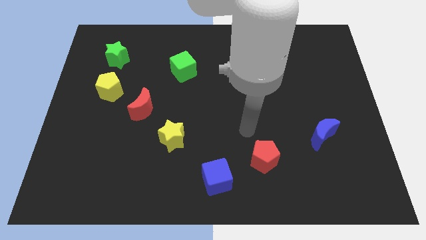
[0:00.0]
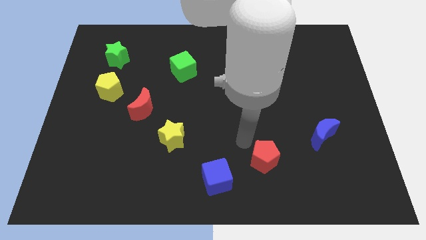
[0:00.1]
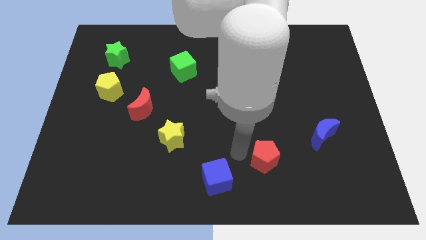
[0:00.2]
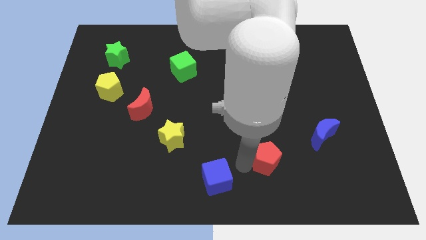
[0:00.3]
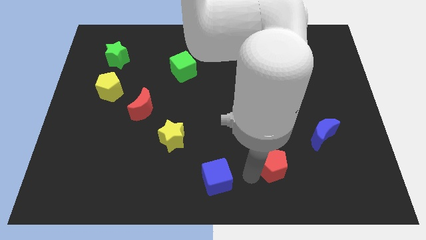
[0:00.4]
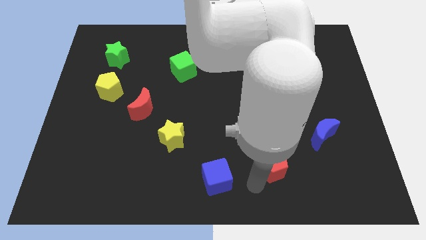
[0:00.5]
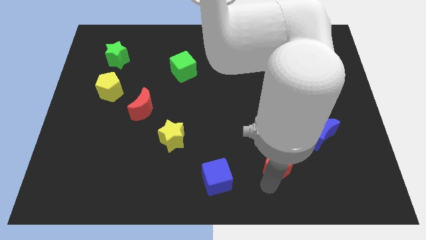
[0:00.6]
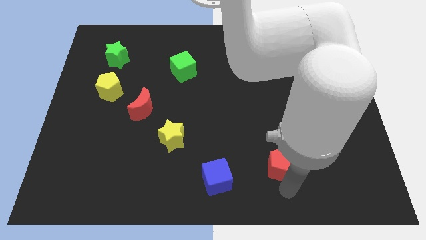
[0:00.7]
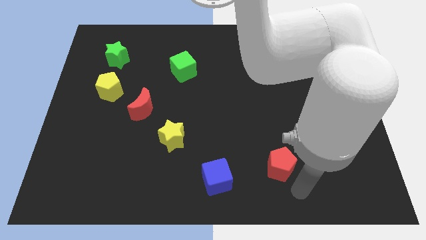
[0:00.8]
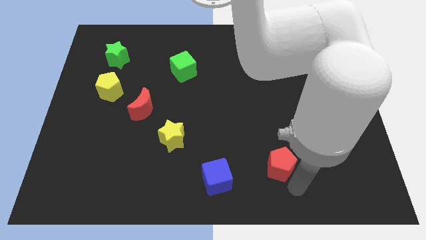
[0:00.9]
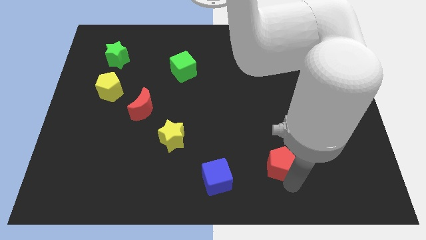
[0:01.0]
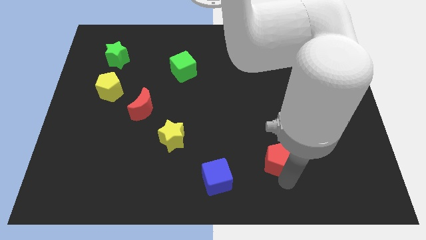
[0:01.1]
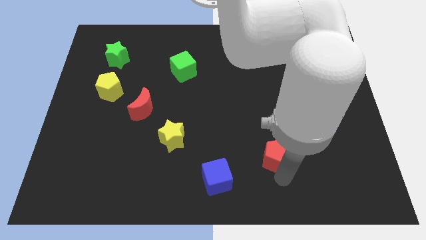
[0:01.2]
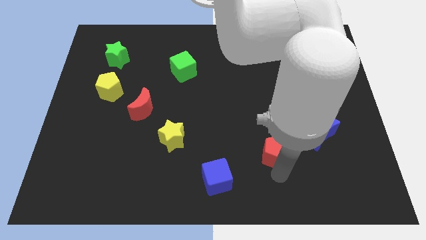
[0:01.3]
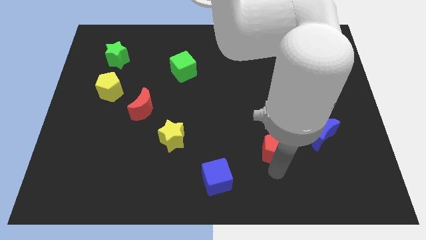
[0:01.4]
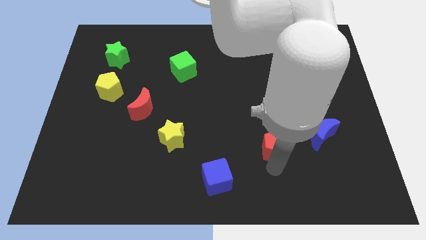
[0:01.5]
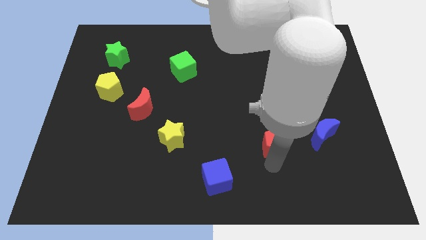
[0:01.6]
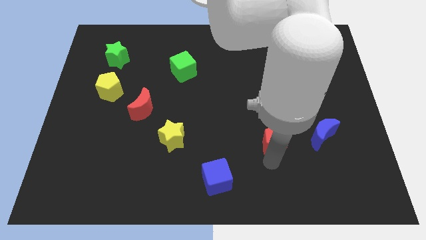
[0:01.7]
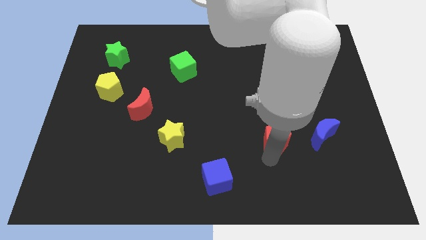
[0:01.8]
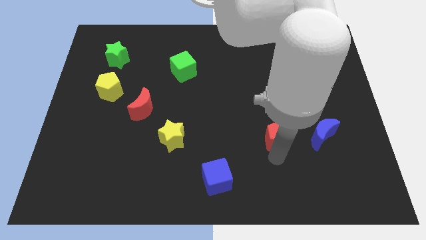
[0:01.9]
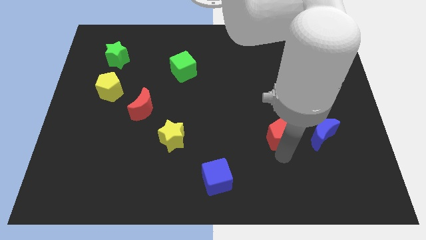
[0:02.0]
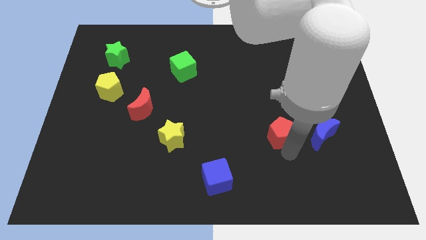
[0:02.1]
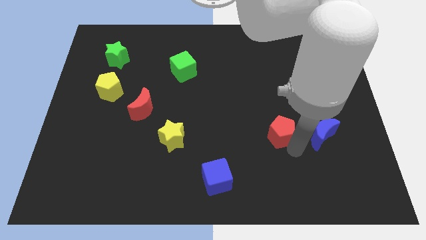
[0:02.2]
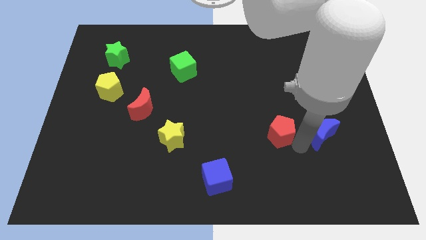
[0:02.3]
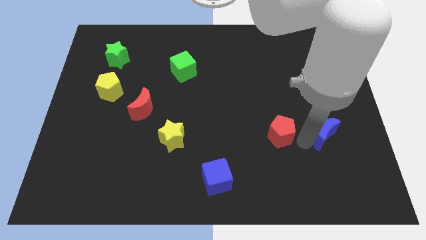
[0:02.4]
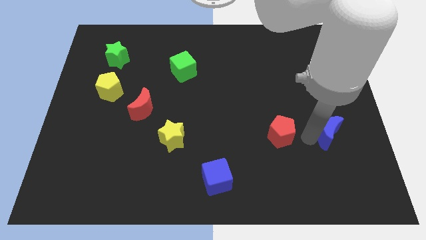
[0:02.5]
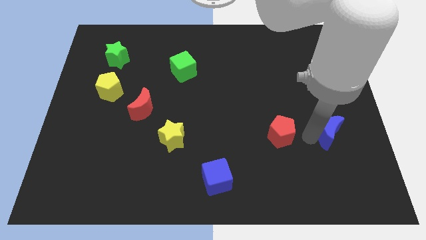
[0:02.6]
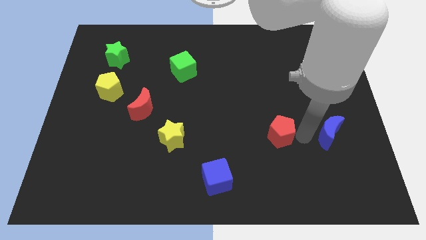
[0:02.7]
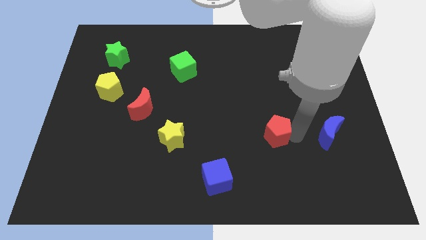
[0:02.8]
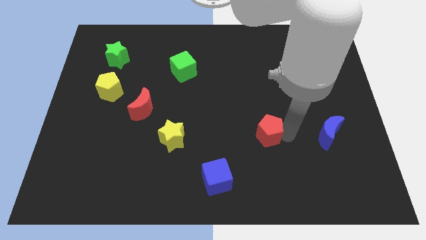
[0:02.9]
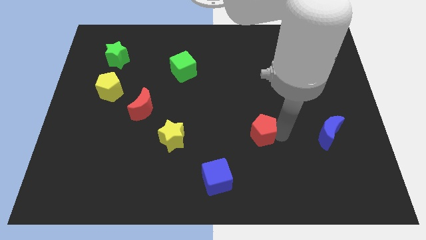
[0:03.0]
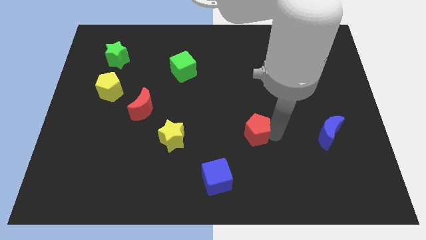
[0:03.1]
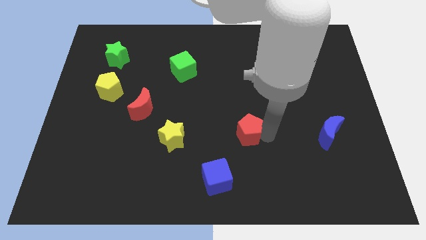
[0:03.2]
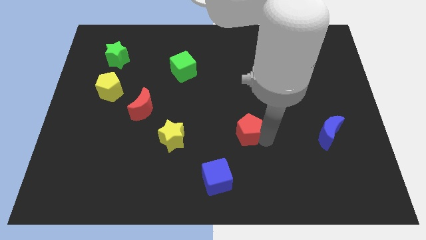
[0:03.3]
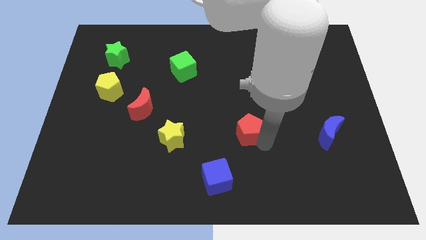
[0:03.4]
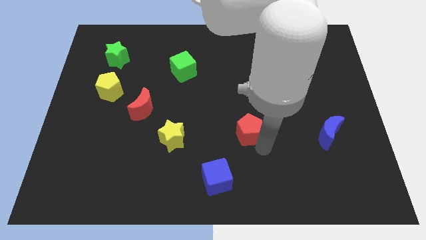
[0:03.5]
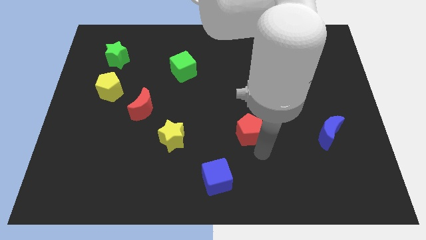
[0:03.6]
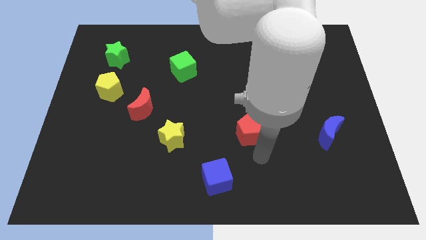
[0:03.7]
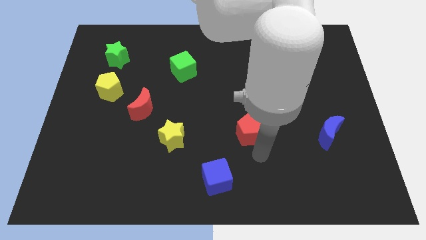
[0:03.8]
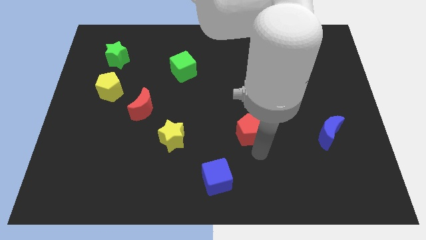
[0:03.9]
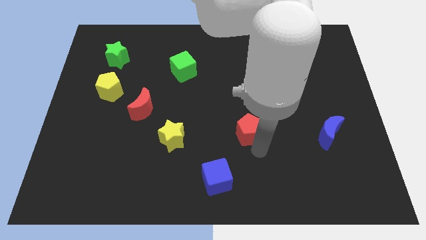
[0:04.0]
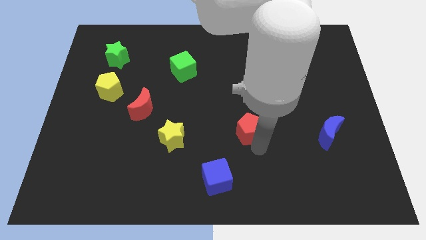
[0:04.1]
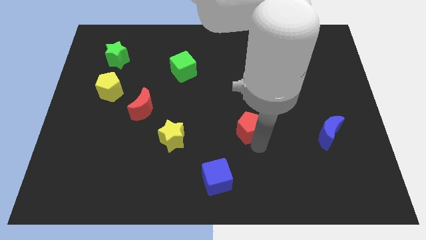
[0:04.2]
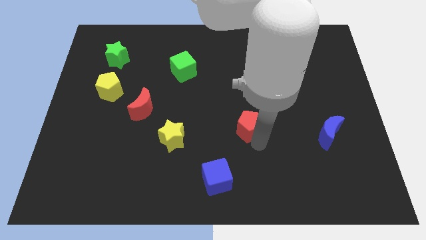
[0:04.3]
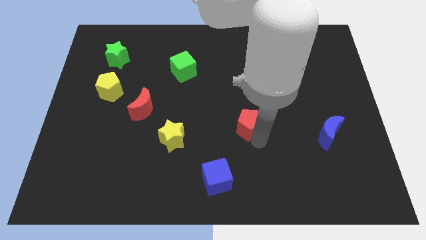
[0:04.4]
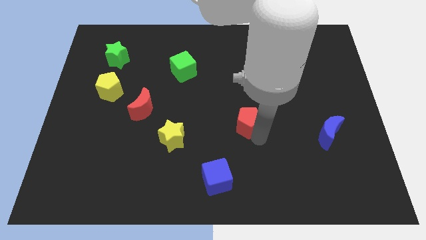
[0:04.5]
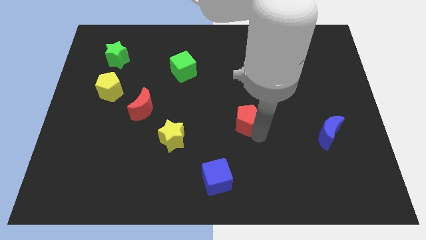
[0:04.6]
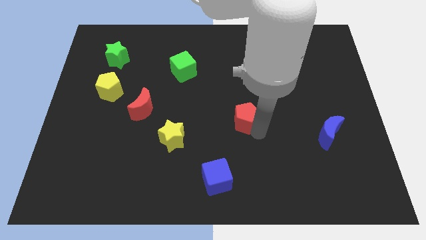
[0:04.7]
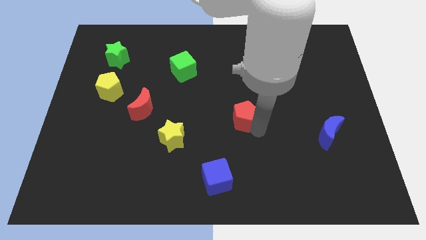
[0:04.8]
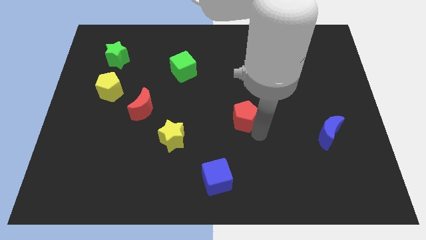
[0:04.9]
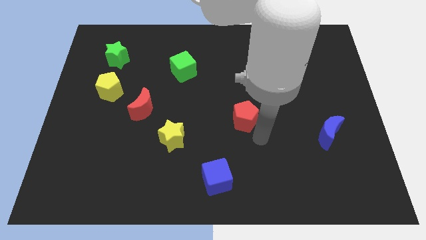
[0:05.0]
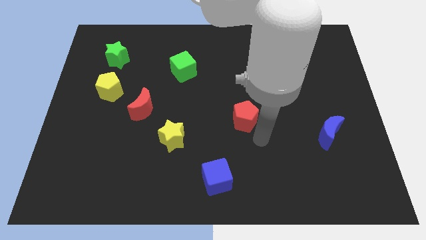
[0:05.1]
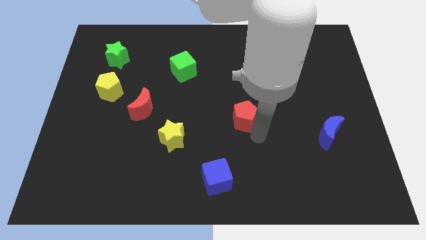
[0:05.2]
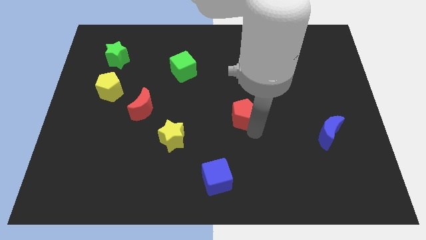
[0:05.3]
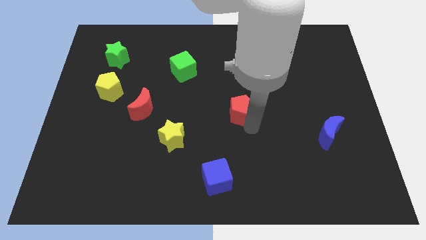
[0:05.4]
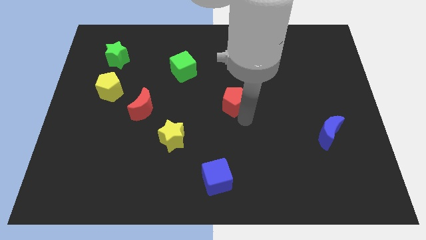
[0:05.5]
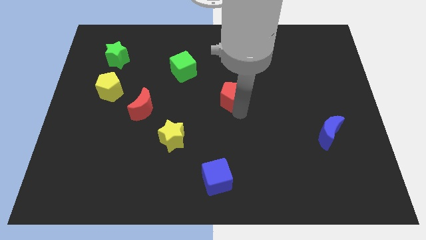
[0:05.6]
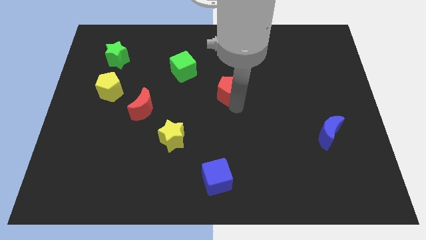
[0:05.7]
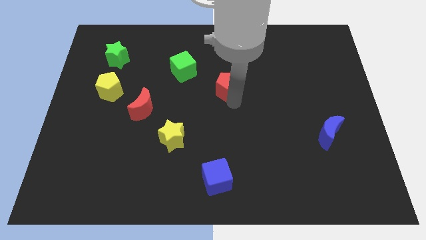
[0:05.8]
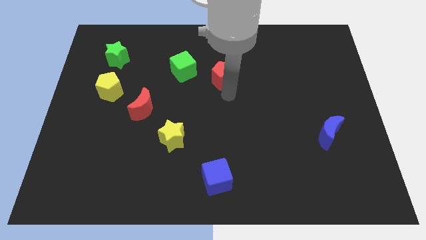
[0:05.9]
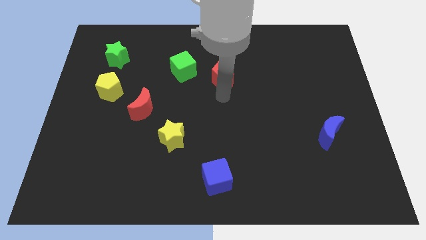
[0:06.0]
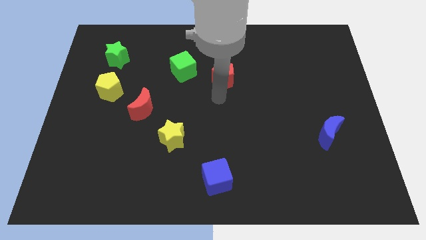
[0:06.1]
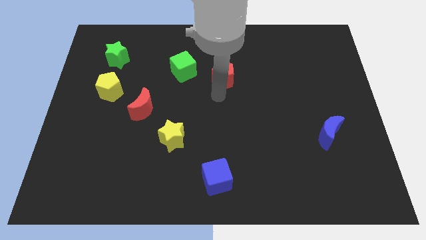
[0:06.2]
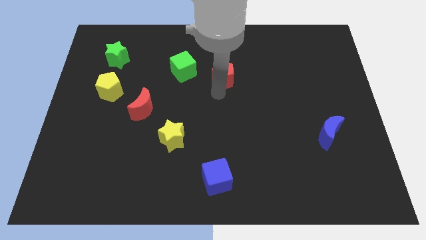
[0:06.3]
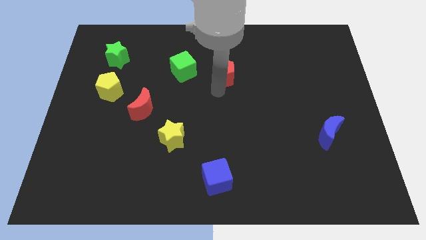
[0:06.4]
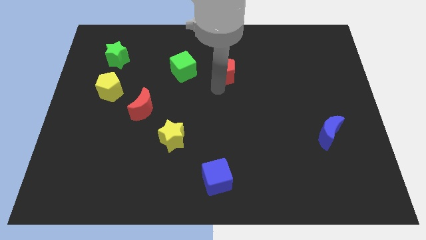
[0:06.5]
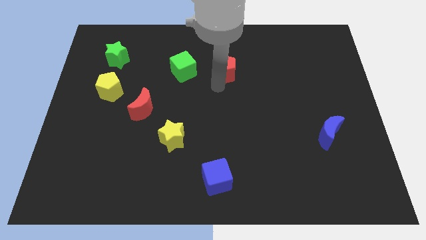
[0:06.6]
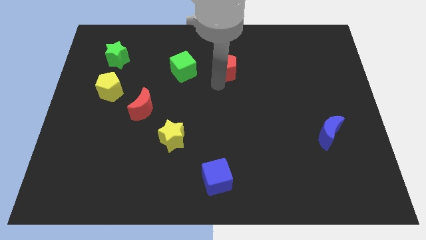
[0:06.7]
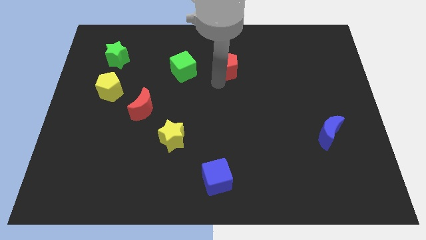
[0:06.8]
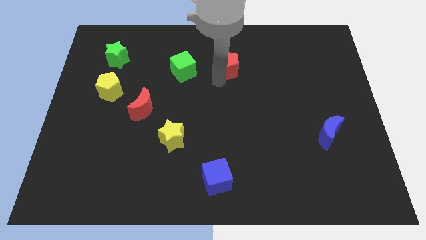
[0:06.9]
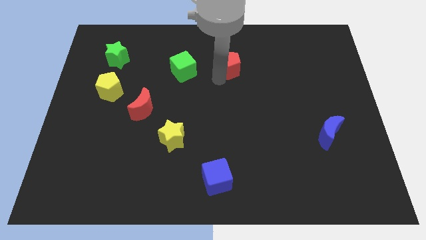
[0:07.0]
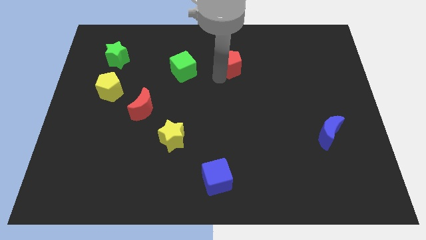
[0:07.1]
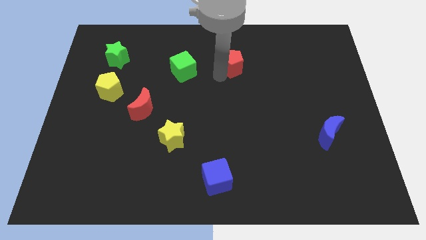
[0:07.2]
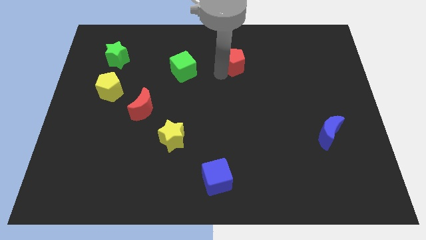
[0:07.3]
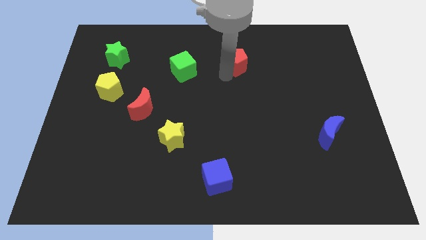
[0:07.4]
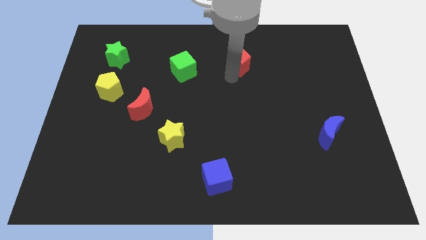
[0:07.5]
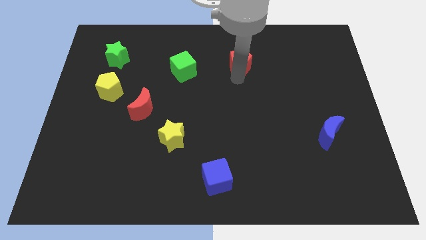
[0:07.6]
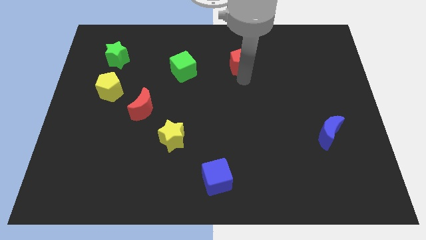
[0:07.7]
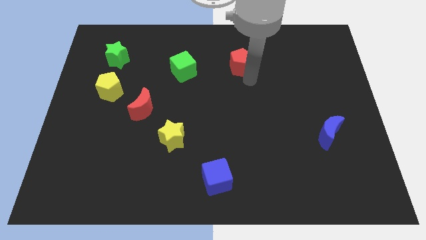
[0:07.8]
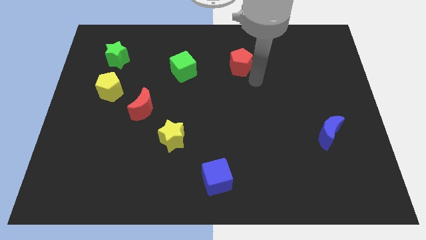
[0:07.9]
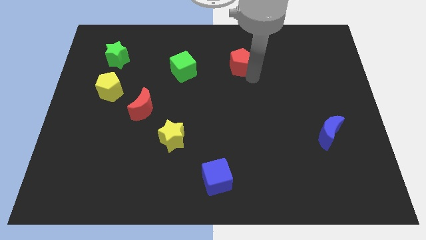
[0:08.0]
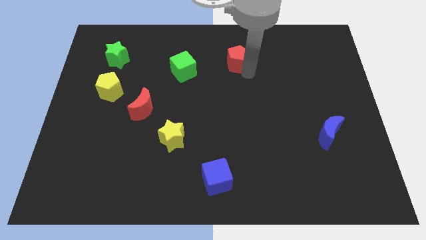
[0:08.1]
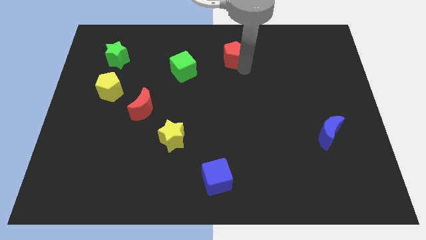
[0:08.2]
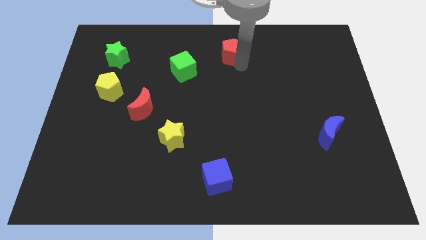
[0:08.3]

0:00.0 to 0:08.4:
move the red pentagon to the towards your base
